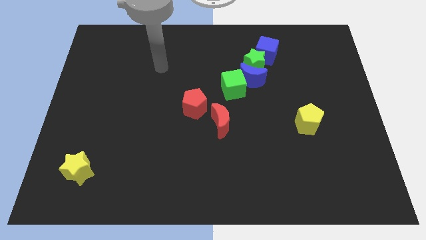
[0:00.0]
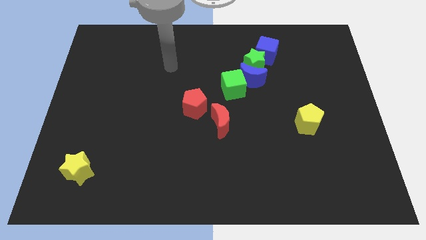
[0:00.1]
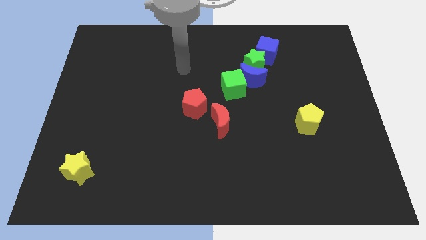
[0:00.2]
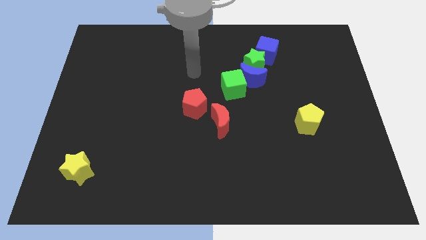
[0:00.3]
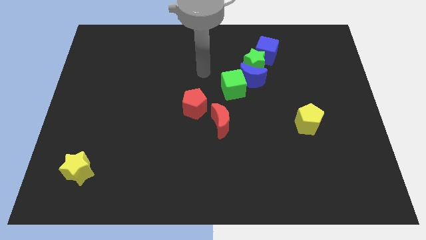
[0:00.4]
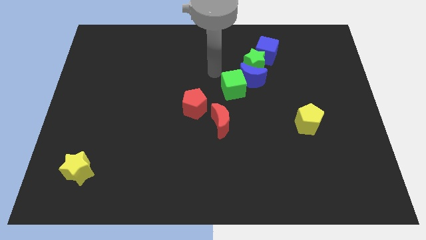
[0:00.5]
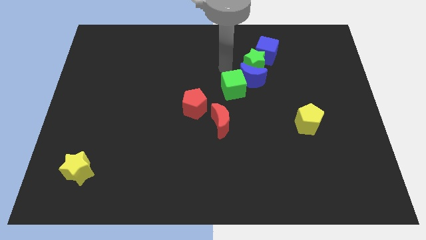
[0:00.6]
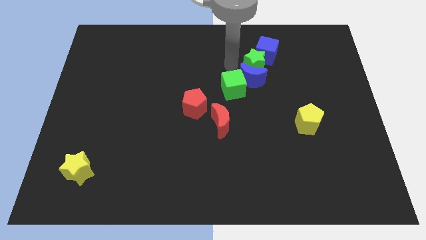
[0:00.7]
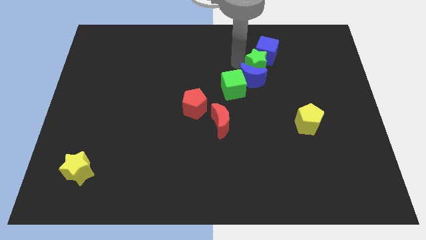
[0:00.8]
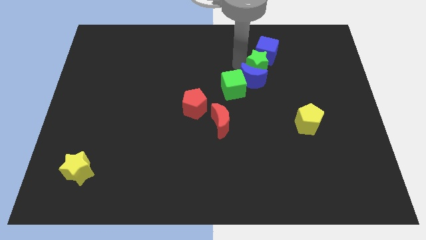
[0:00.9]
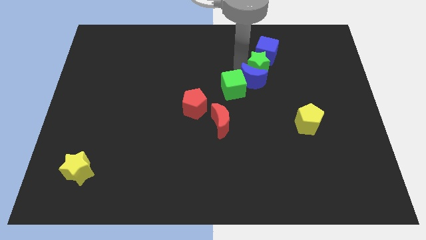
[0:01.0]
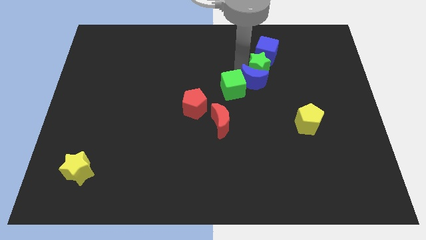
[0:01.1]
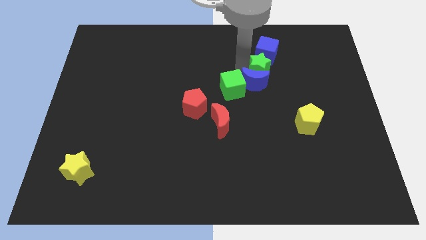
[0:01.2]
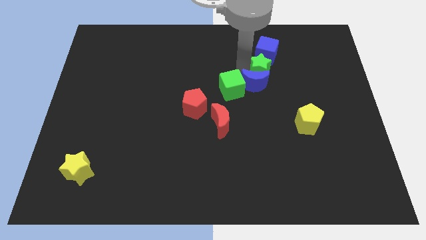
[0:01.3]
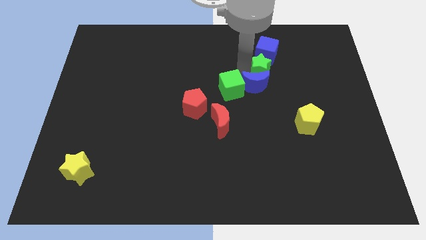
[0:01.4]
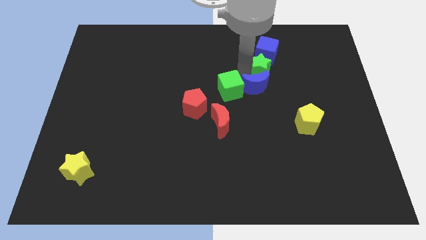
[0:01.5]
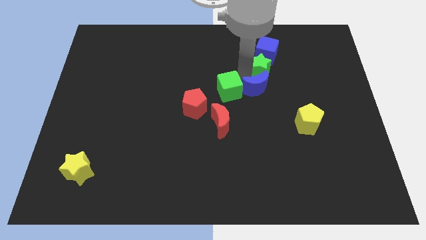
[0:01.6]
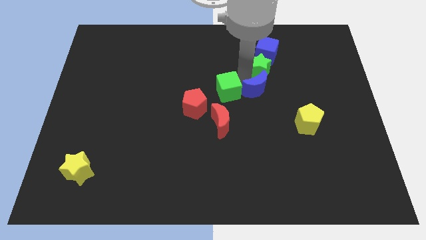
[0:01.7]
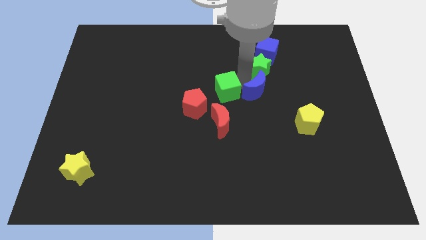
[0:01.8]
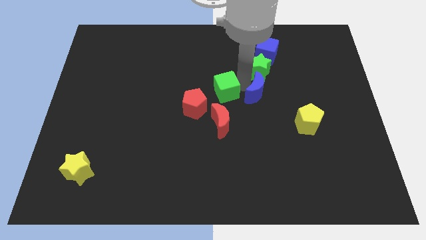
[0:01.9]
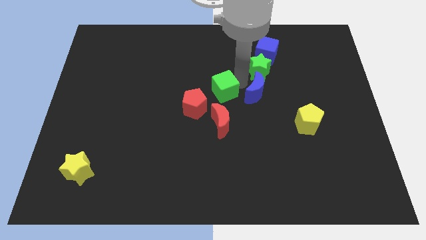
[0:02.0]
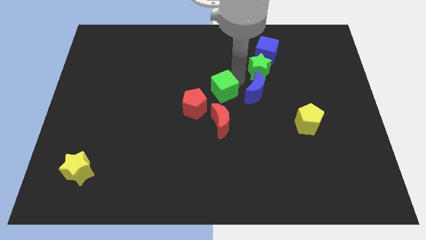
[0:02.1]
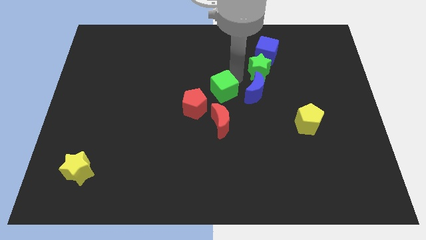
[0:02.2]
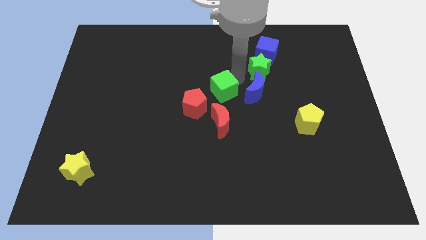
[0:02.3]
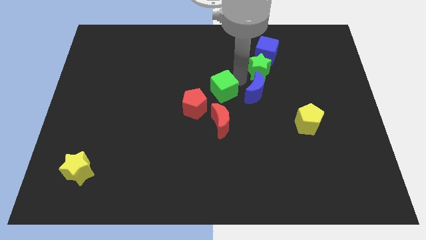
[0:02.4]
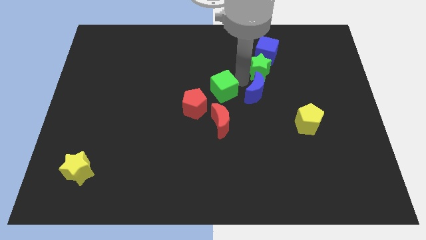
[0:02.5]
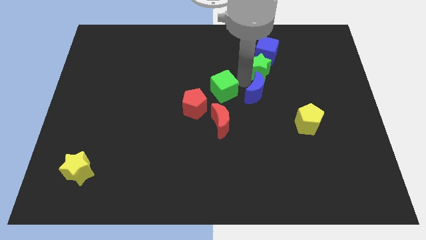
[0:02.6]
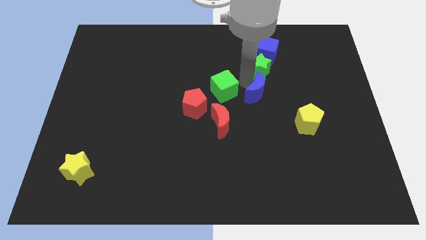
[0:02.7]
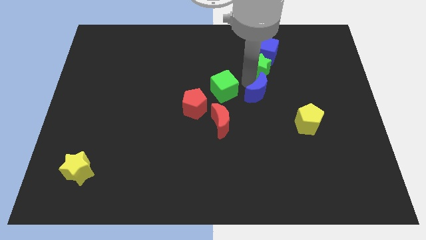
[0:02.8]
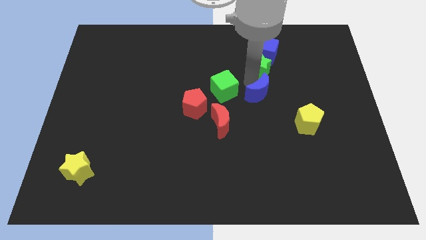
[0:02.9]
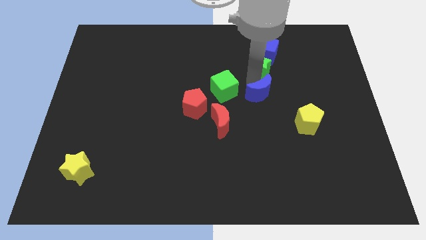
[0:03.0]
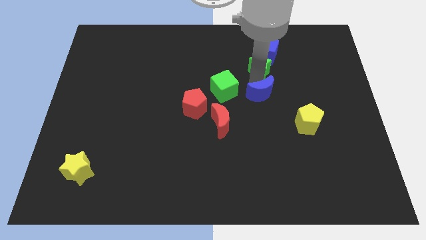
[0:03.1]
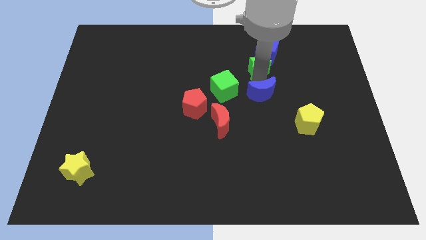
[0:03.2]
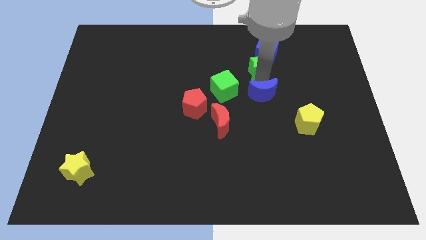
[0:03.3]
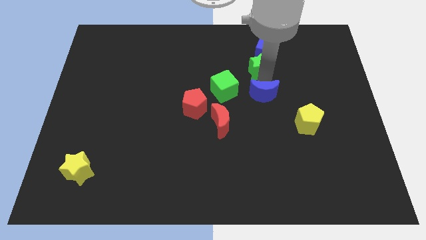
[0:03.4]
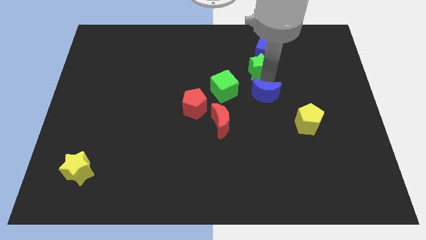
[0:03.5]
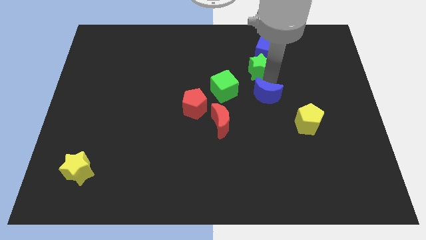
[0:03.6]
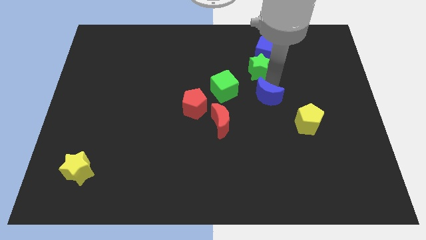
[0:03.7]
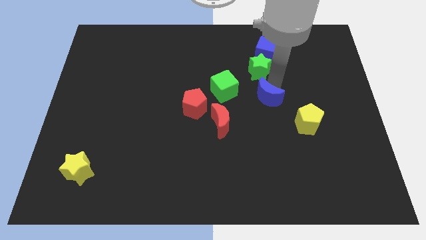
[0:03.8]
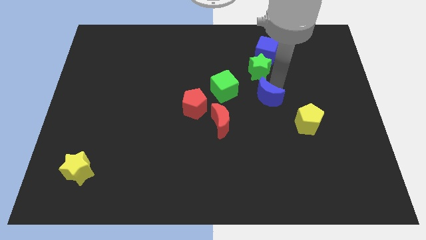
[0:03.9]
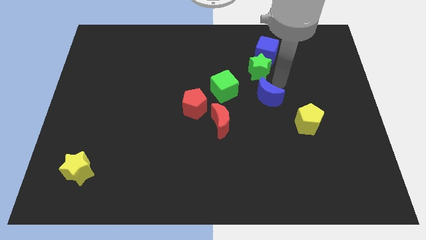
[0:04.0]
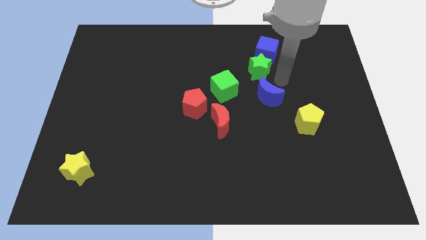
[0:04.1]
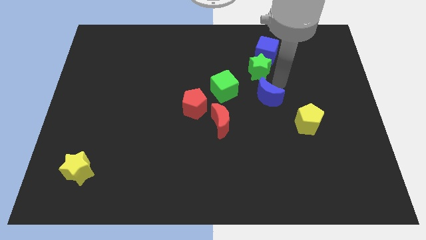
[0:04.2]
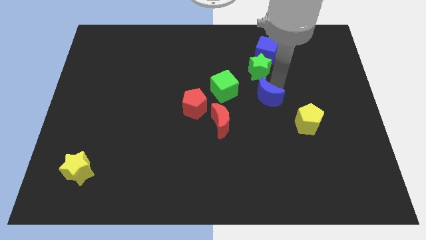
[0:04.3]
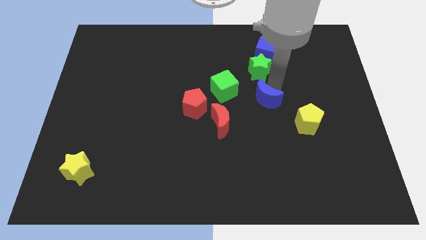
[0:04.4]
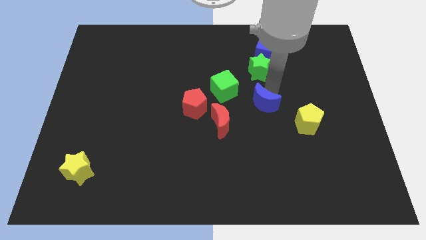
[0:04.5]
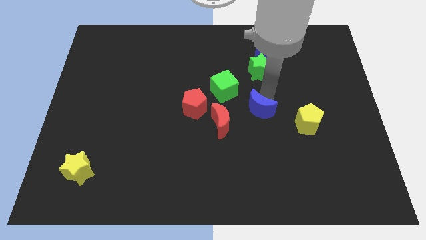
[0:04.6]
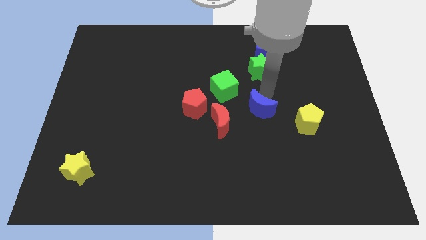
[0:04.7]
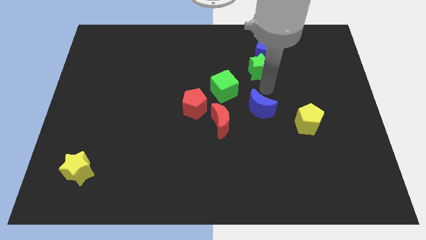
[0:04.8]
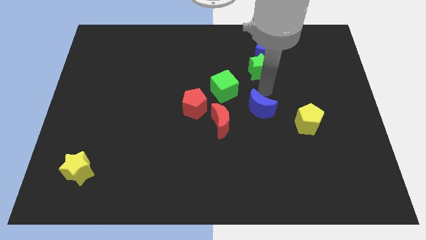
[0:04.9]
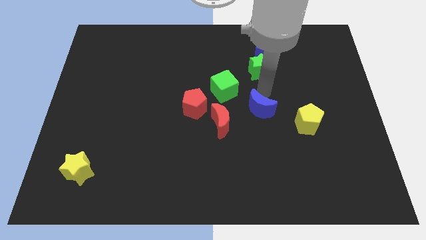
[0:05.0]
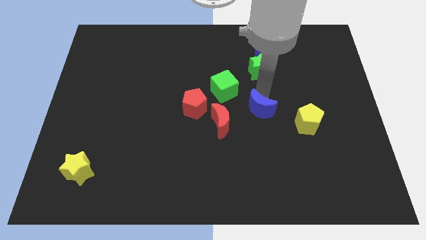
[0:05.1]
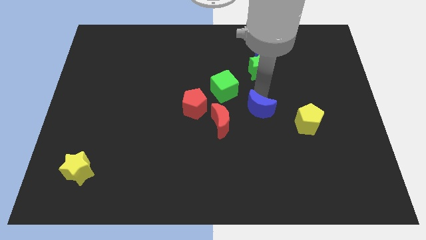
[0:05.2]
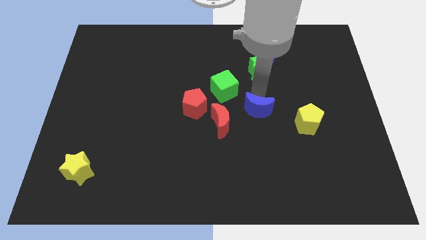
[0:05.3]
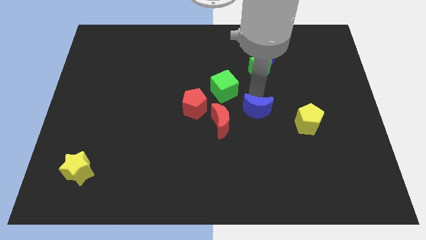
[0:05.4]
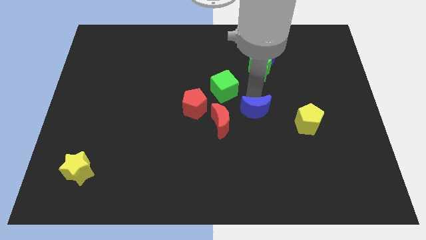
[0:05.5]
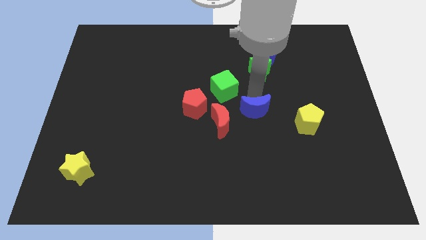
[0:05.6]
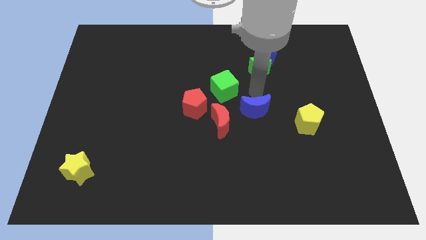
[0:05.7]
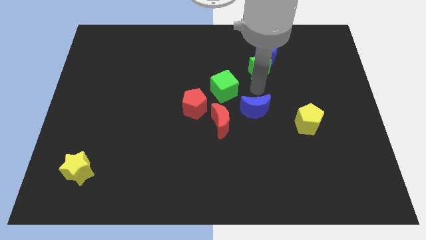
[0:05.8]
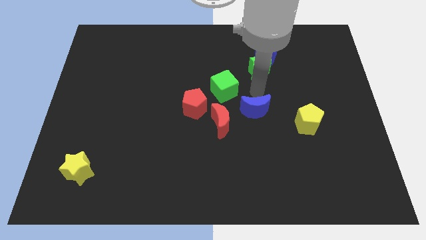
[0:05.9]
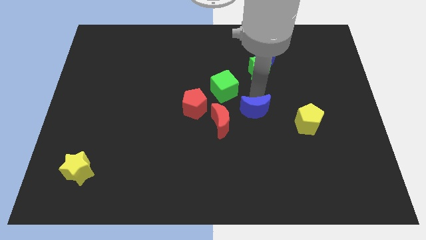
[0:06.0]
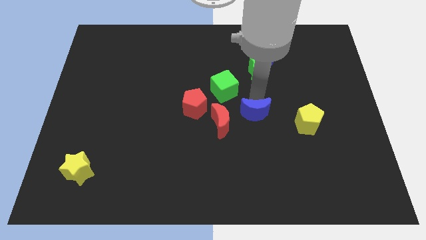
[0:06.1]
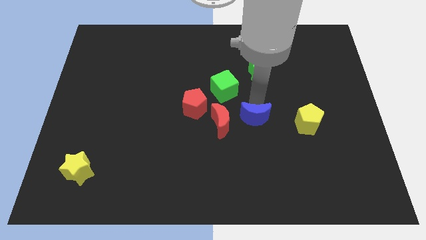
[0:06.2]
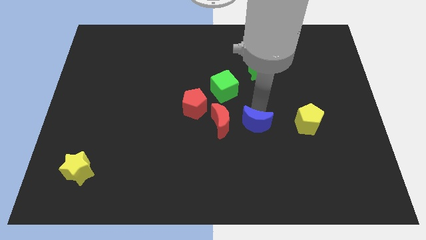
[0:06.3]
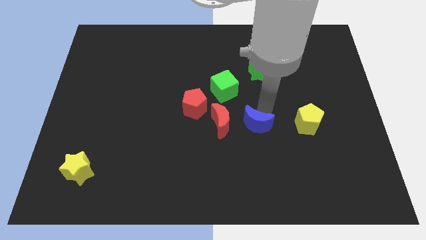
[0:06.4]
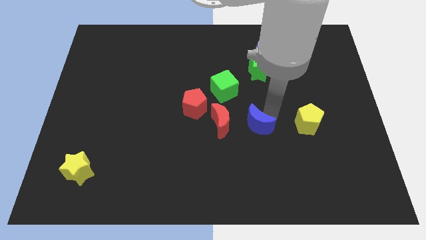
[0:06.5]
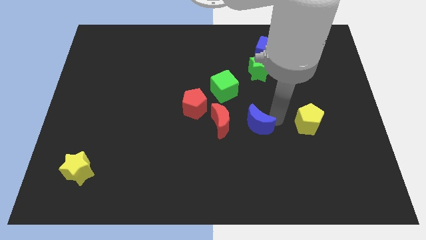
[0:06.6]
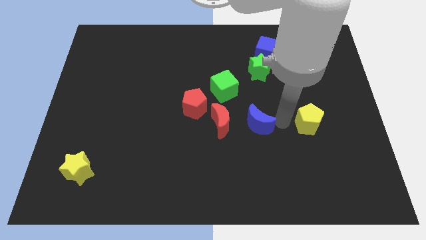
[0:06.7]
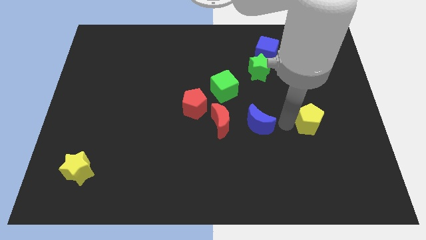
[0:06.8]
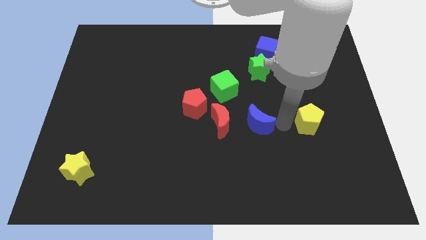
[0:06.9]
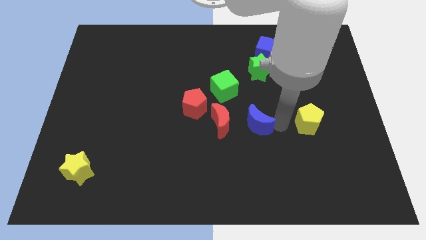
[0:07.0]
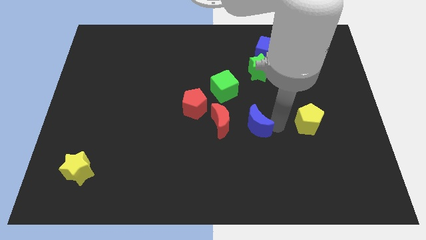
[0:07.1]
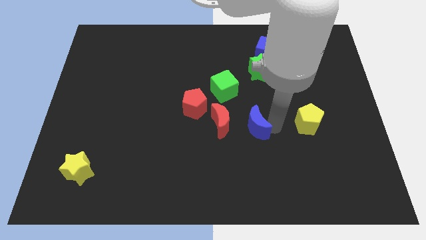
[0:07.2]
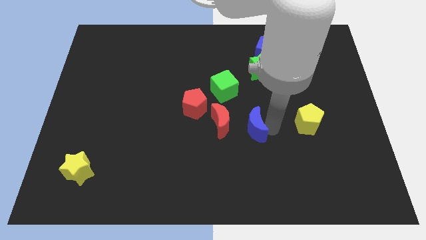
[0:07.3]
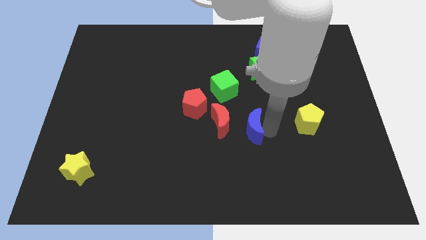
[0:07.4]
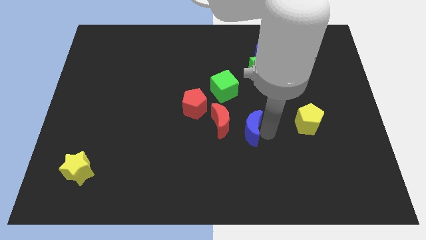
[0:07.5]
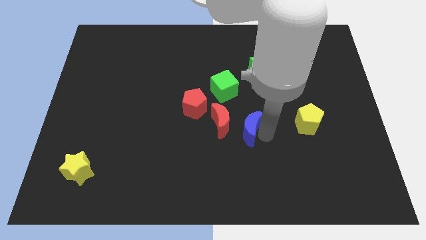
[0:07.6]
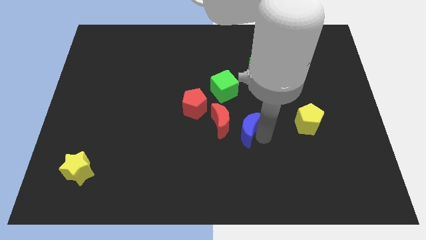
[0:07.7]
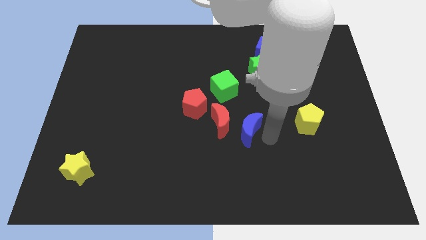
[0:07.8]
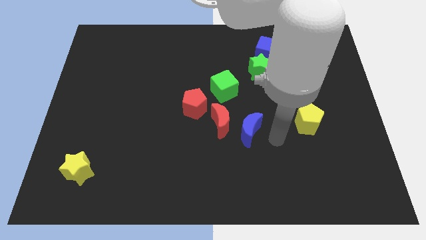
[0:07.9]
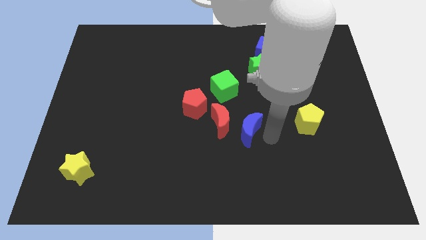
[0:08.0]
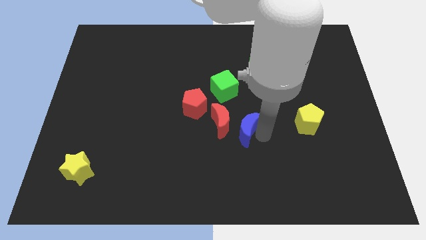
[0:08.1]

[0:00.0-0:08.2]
slide the blue moon to the bottom of the green cube
